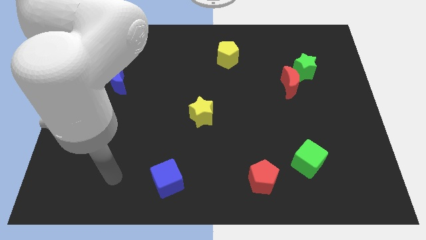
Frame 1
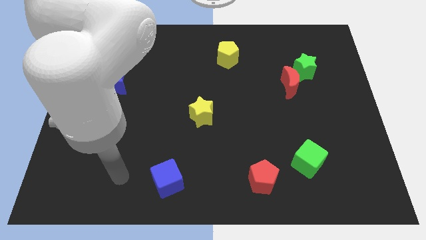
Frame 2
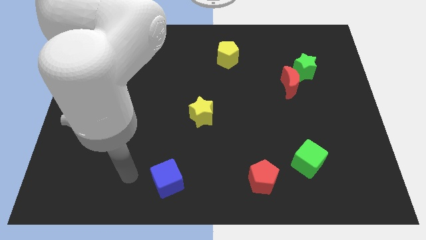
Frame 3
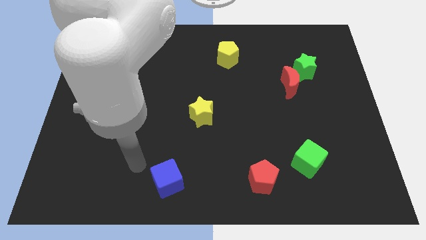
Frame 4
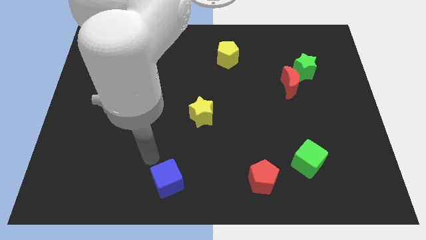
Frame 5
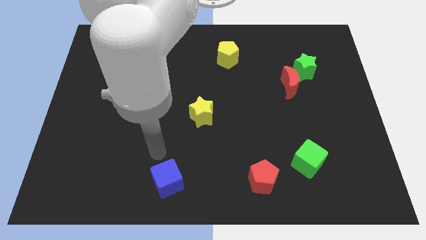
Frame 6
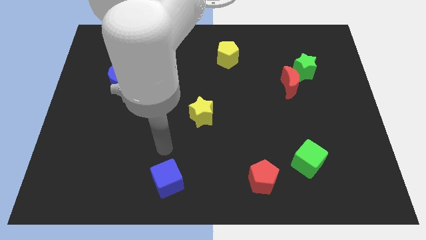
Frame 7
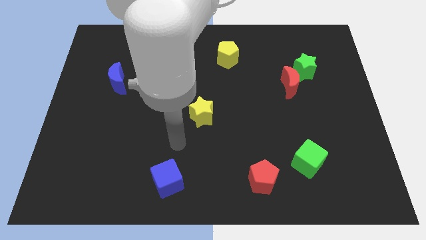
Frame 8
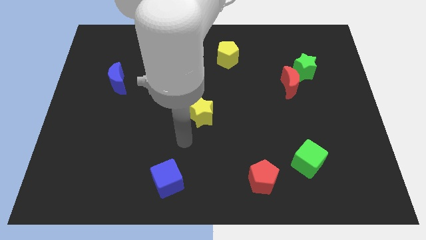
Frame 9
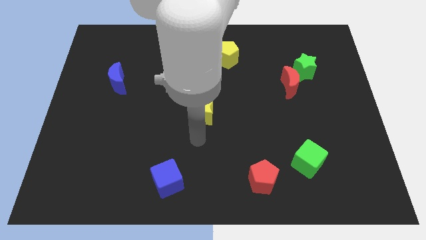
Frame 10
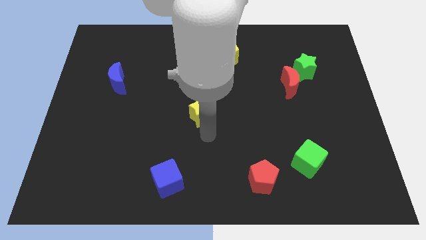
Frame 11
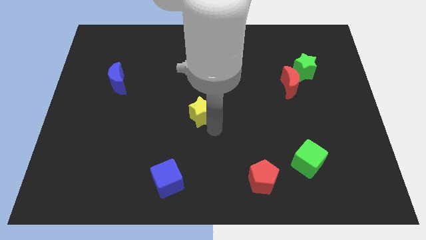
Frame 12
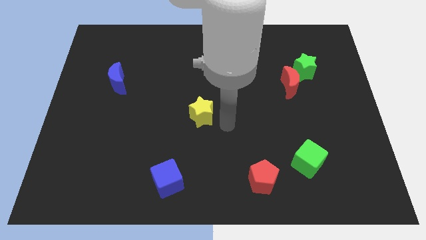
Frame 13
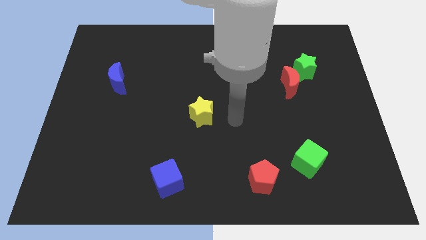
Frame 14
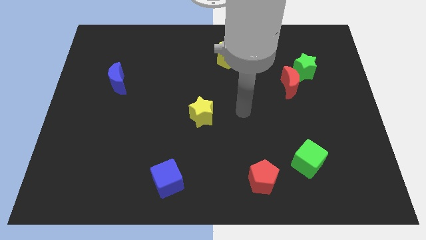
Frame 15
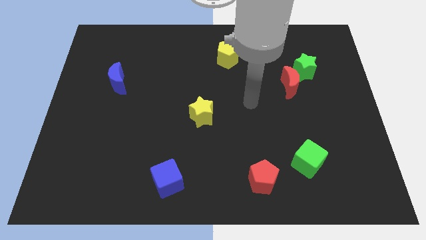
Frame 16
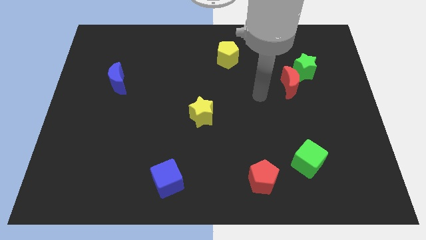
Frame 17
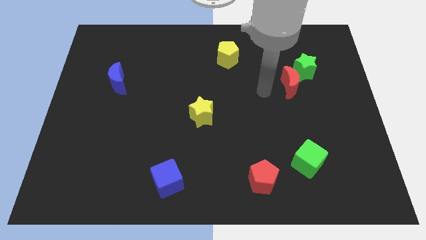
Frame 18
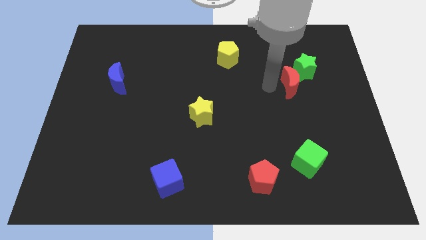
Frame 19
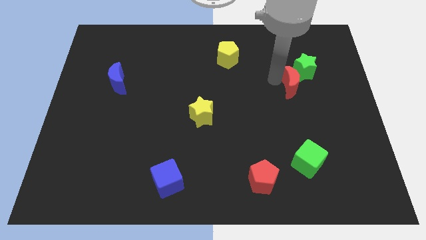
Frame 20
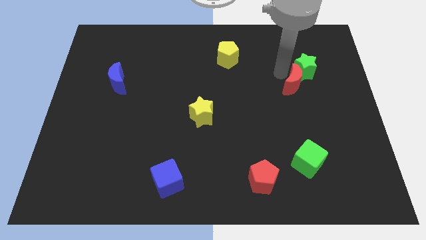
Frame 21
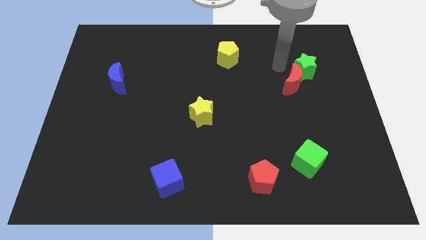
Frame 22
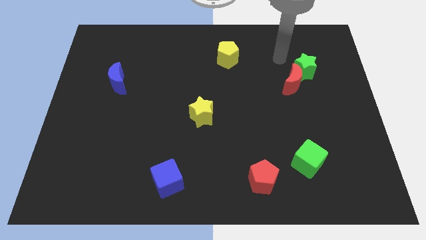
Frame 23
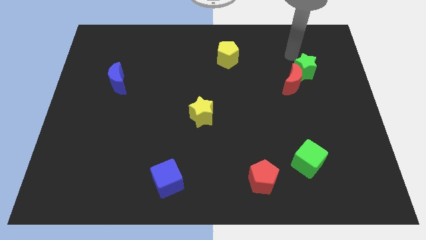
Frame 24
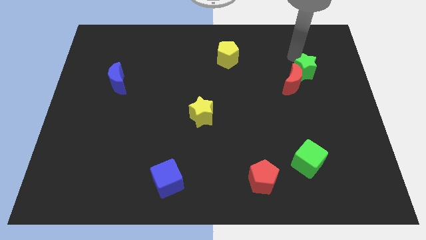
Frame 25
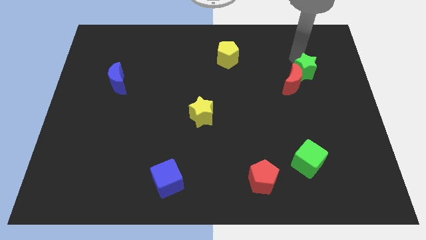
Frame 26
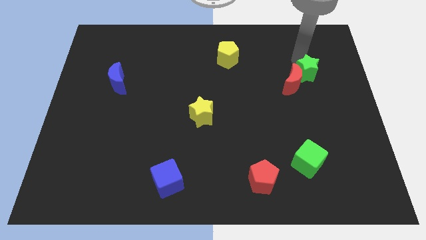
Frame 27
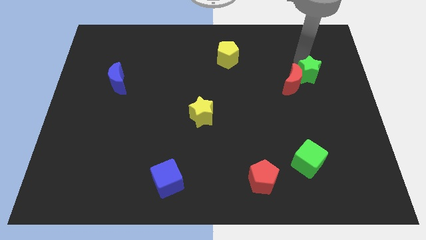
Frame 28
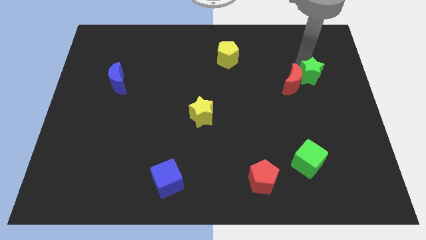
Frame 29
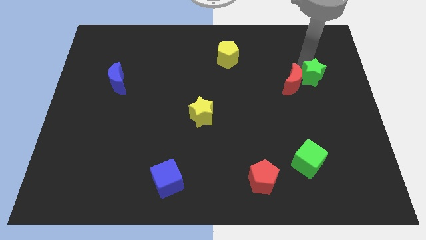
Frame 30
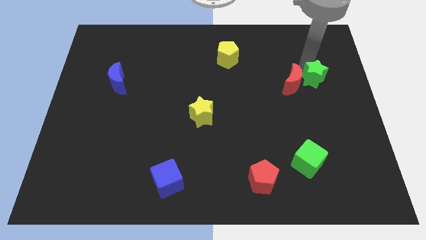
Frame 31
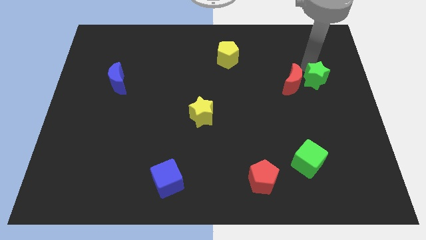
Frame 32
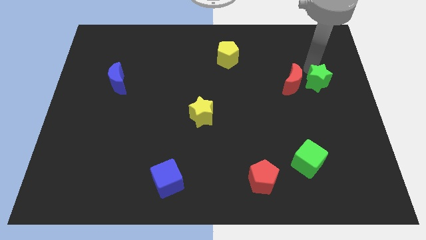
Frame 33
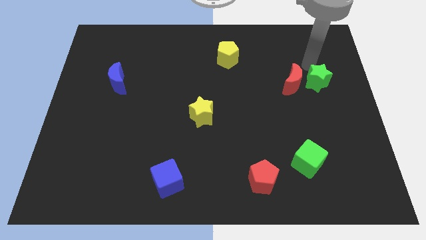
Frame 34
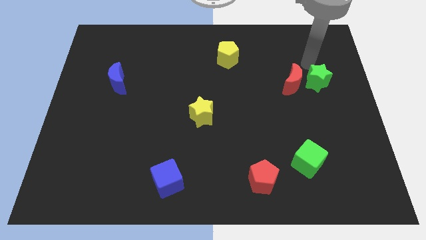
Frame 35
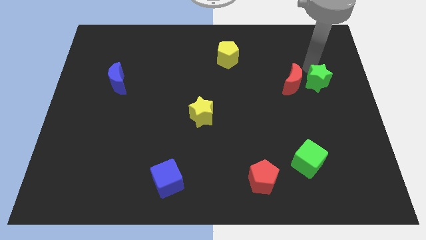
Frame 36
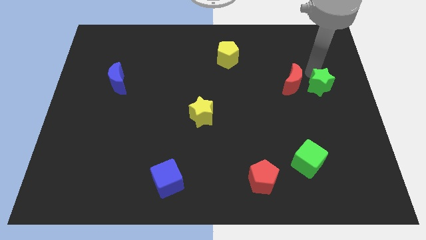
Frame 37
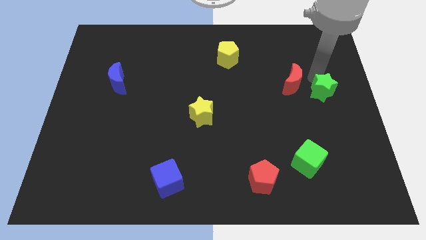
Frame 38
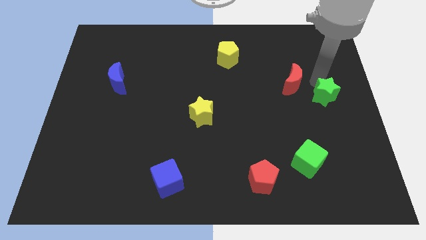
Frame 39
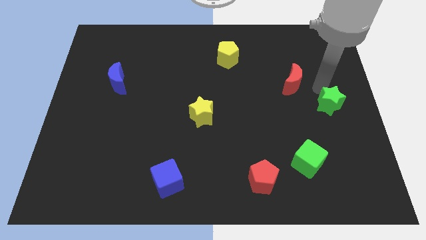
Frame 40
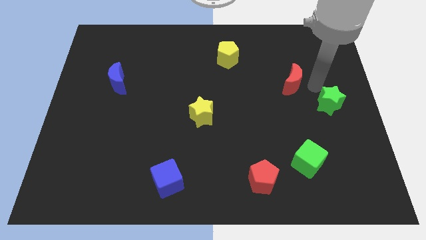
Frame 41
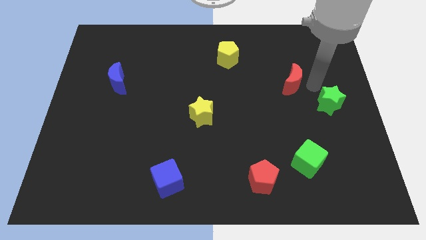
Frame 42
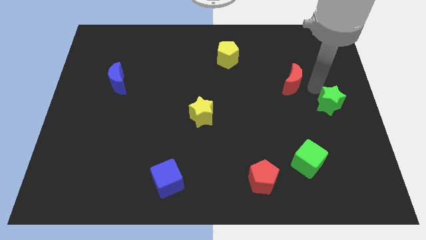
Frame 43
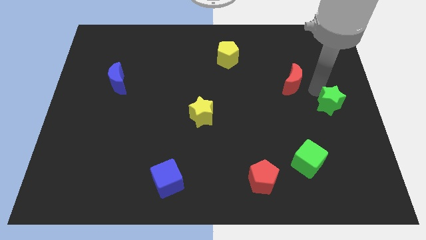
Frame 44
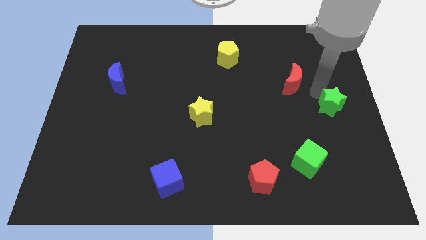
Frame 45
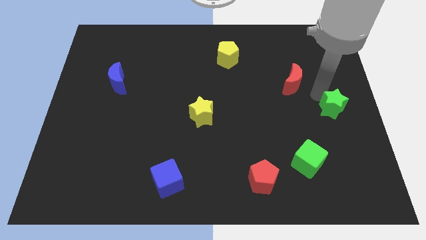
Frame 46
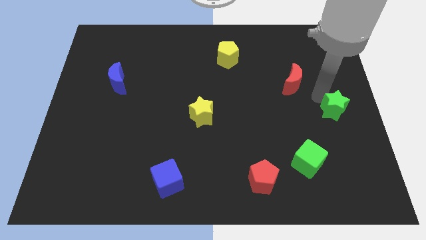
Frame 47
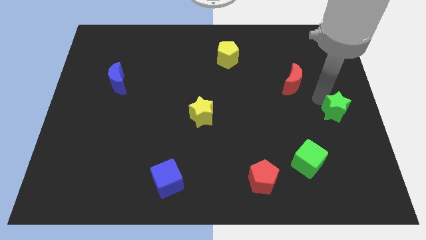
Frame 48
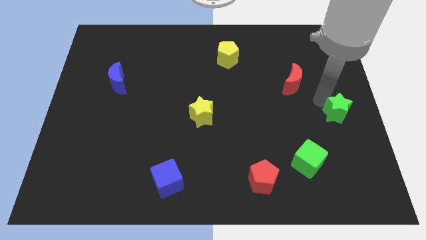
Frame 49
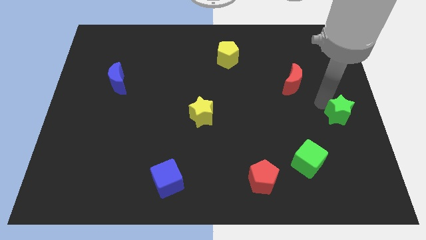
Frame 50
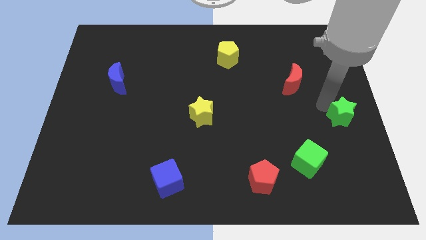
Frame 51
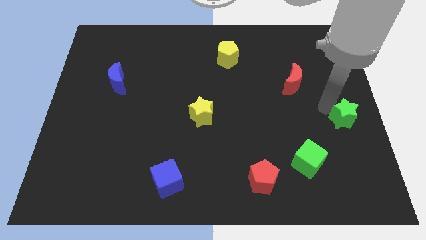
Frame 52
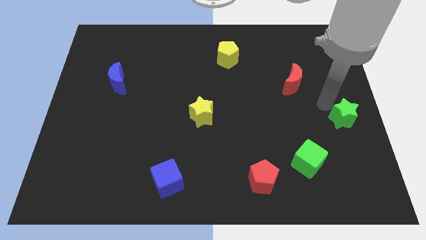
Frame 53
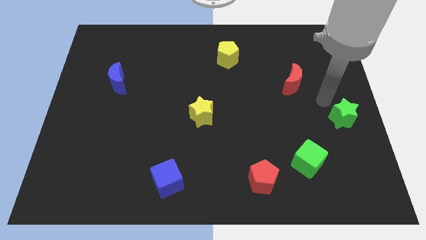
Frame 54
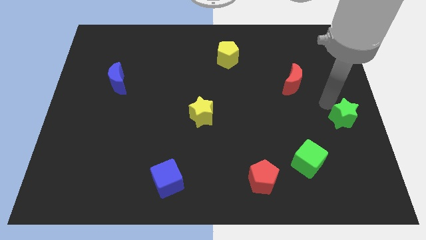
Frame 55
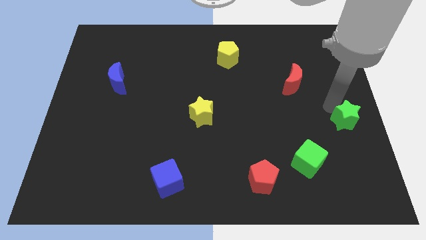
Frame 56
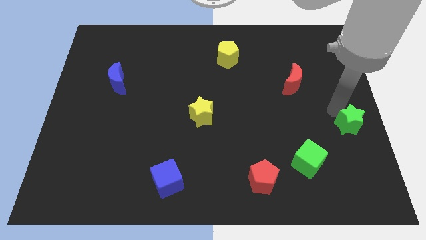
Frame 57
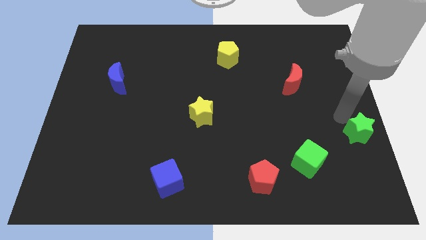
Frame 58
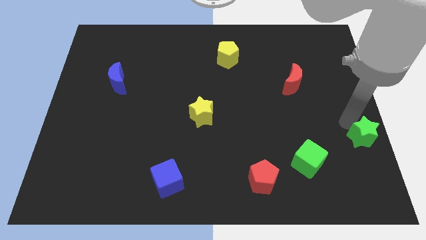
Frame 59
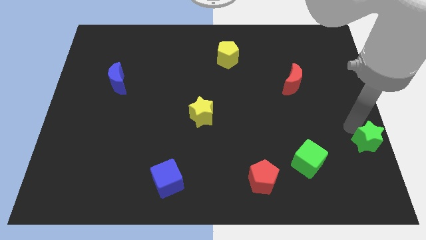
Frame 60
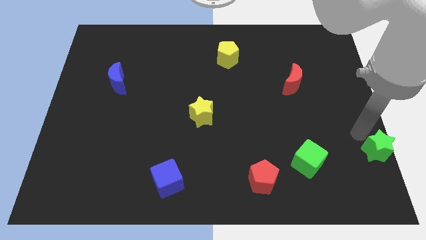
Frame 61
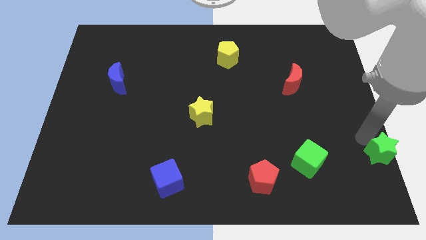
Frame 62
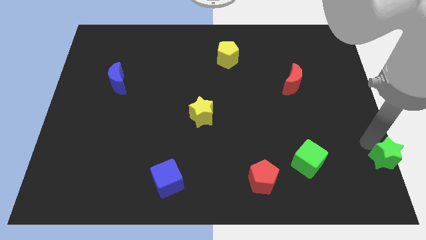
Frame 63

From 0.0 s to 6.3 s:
slide the green star to the bottom right of the board
